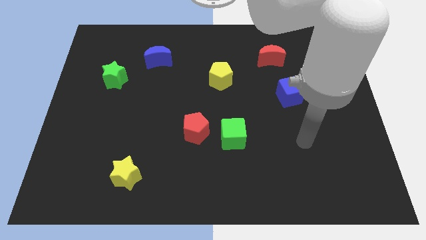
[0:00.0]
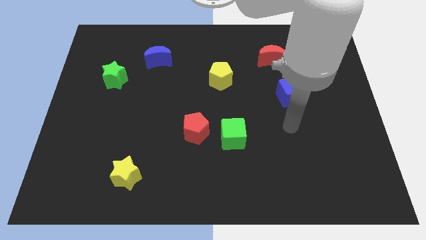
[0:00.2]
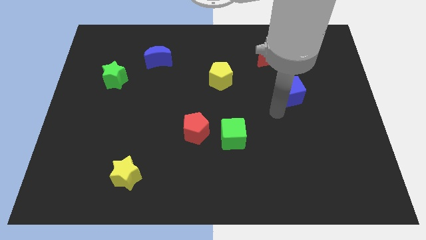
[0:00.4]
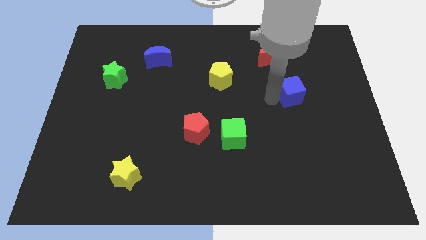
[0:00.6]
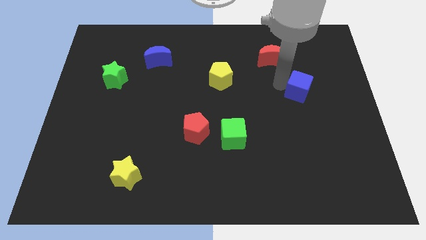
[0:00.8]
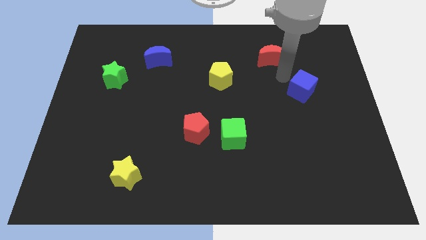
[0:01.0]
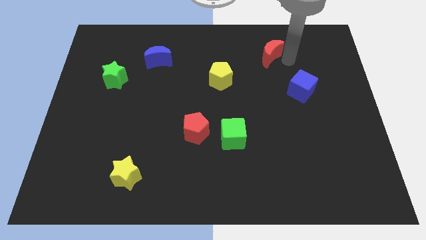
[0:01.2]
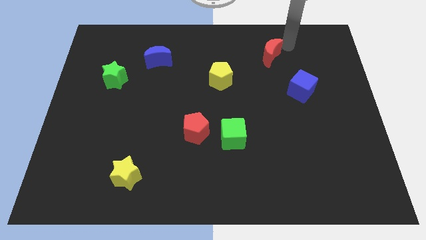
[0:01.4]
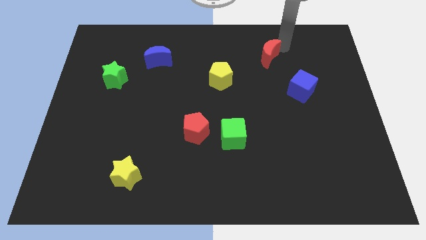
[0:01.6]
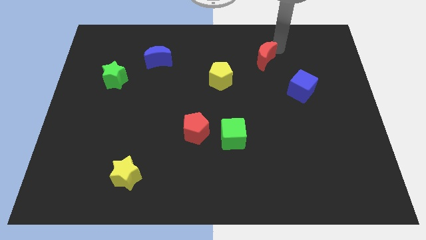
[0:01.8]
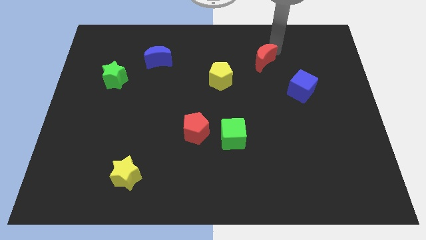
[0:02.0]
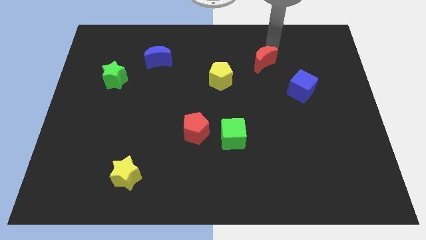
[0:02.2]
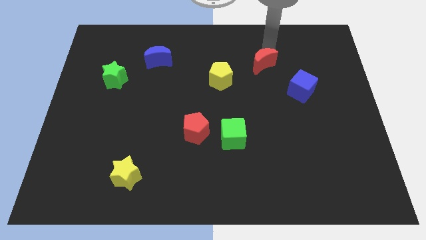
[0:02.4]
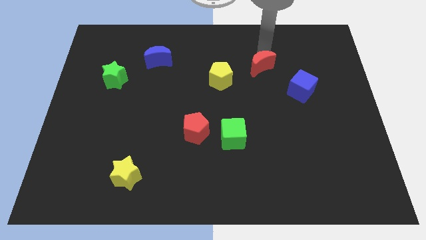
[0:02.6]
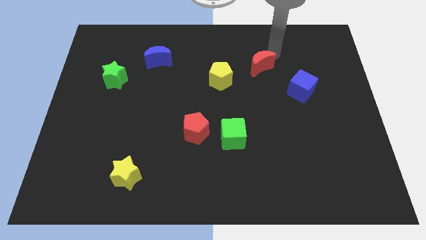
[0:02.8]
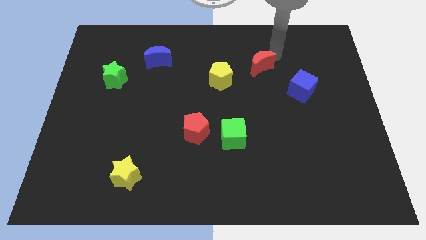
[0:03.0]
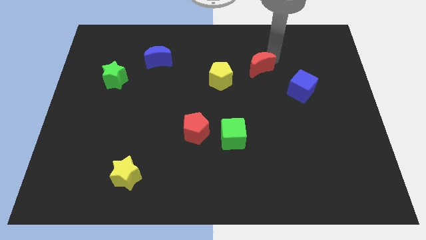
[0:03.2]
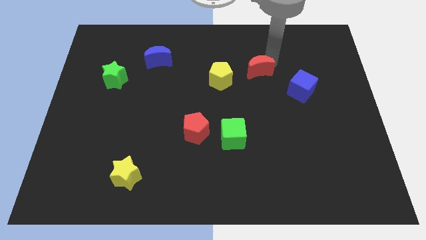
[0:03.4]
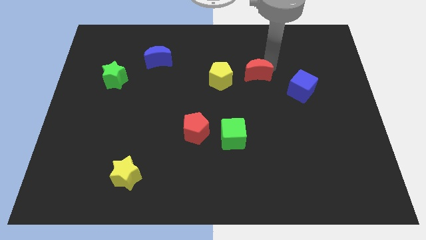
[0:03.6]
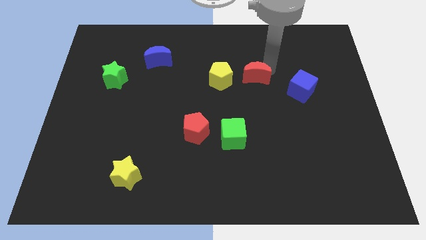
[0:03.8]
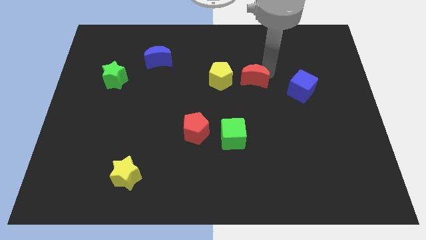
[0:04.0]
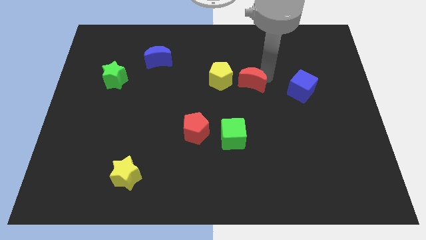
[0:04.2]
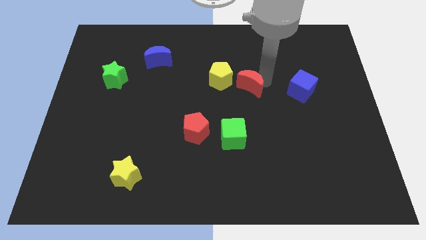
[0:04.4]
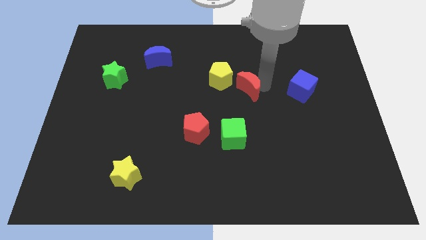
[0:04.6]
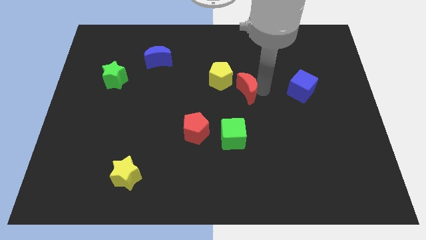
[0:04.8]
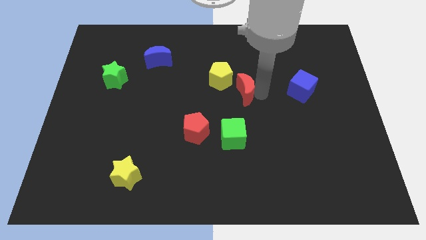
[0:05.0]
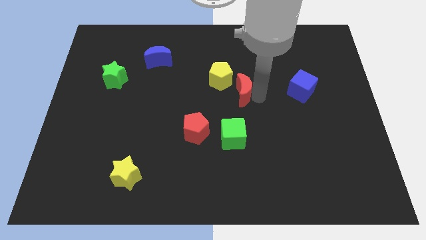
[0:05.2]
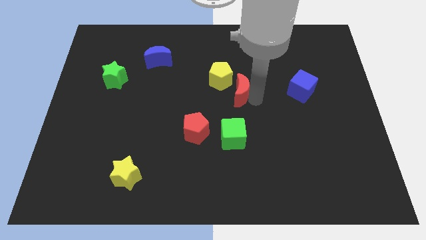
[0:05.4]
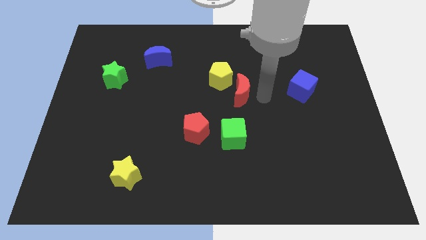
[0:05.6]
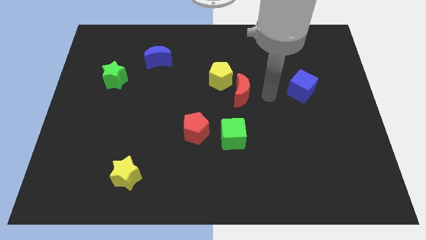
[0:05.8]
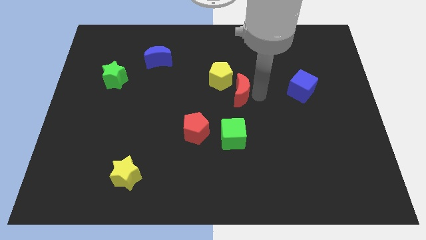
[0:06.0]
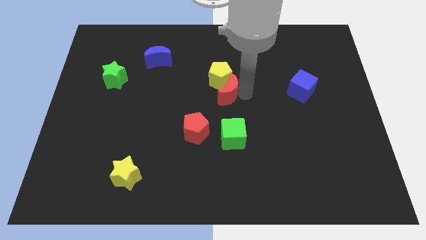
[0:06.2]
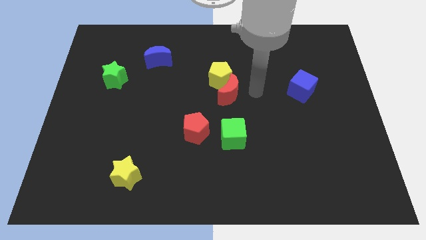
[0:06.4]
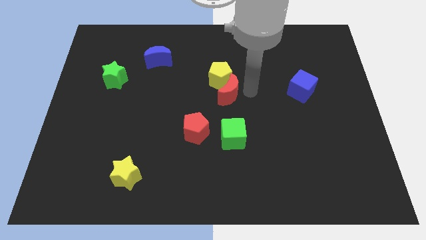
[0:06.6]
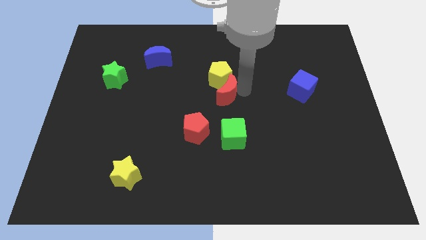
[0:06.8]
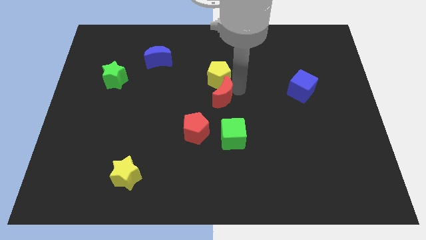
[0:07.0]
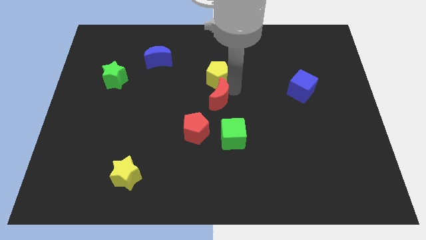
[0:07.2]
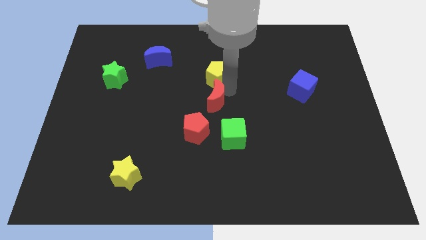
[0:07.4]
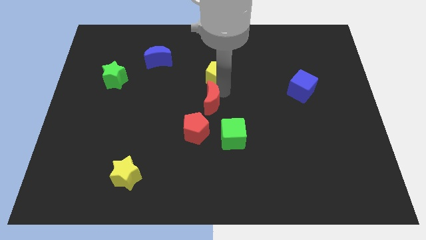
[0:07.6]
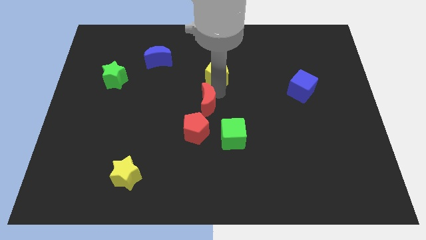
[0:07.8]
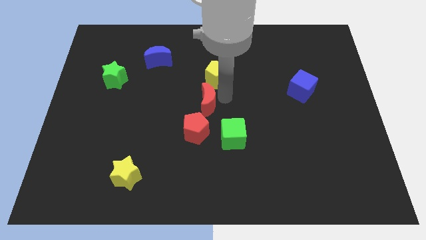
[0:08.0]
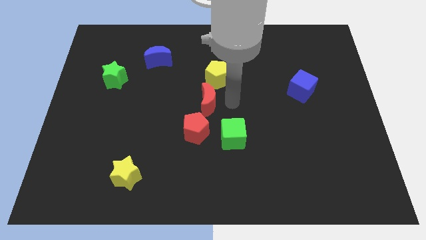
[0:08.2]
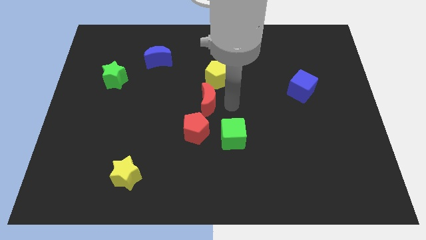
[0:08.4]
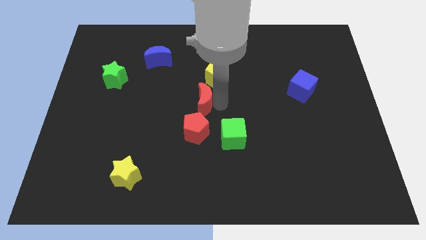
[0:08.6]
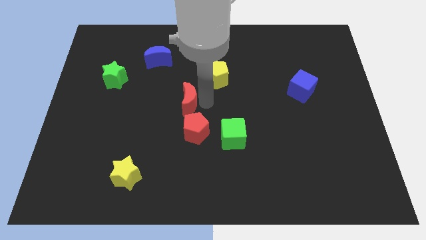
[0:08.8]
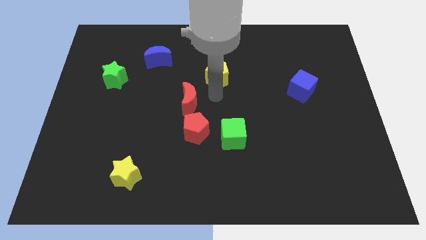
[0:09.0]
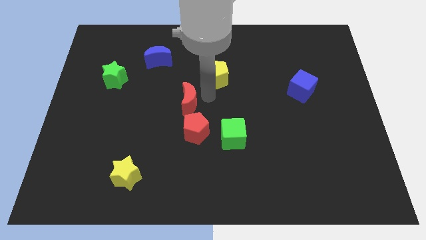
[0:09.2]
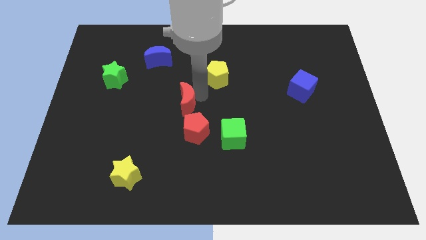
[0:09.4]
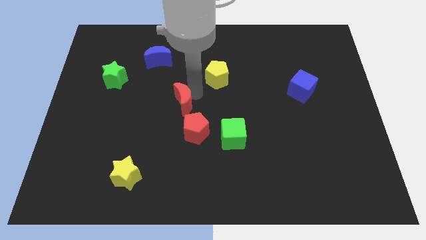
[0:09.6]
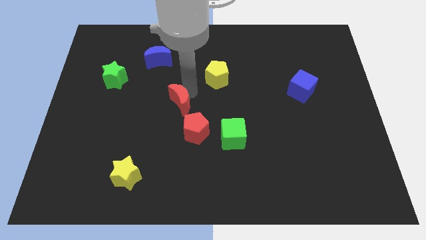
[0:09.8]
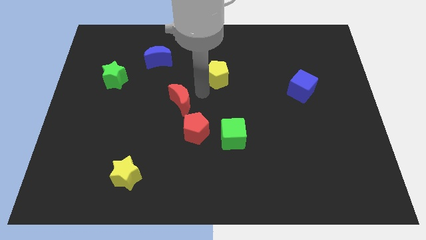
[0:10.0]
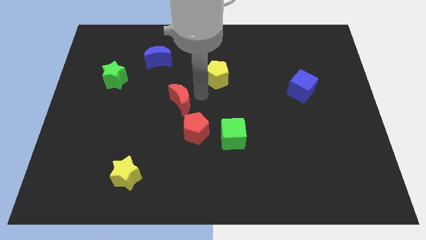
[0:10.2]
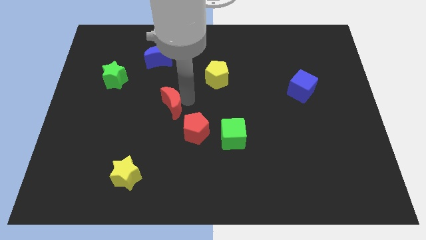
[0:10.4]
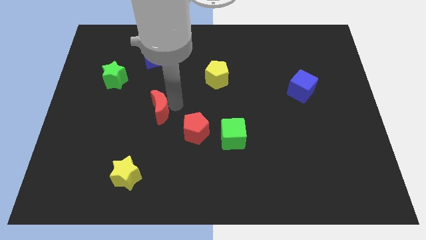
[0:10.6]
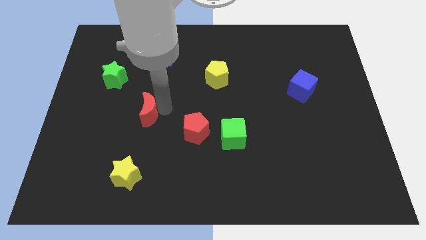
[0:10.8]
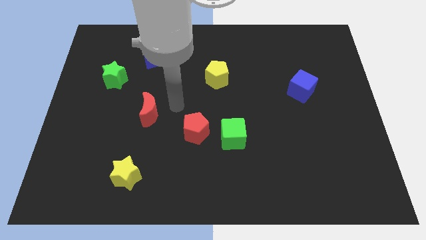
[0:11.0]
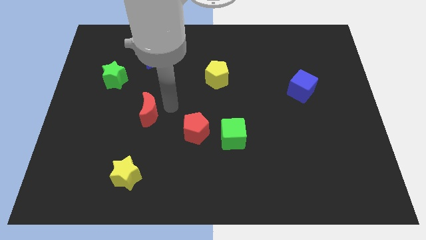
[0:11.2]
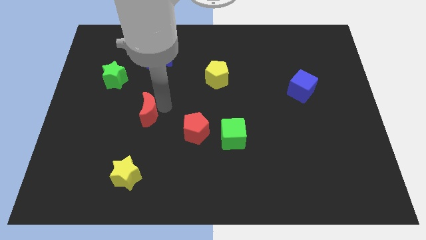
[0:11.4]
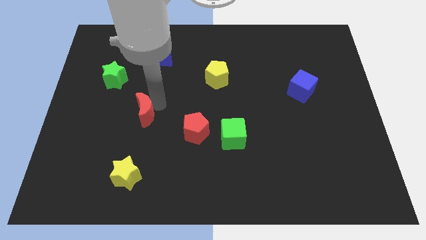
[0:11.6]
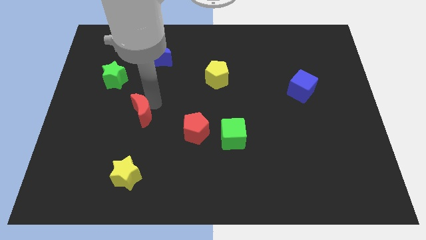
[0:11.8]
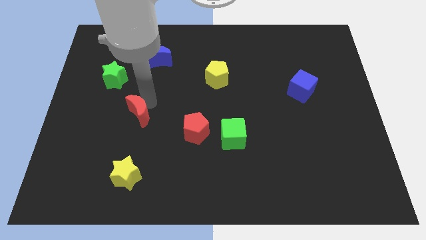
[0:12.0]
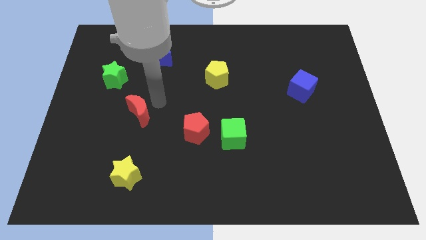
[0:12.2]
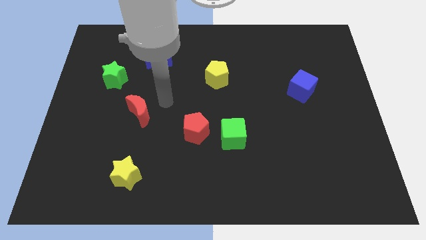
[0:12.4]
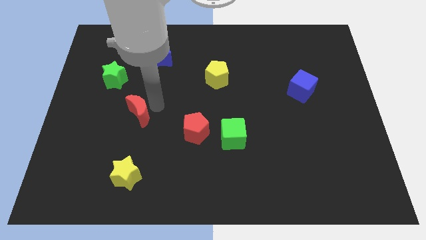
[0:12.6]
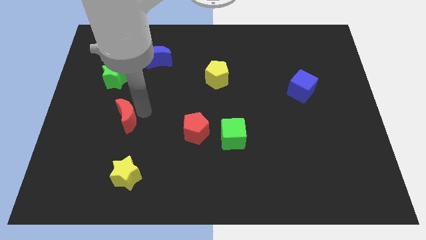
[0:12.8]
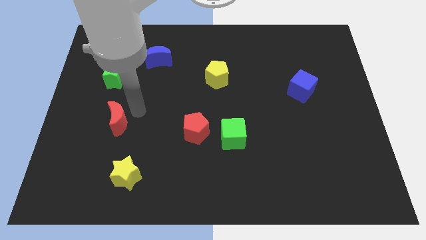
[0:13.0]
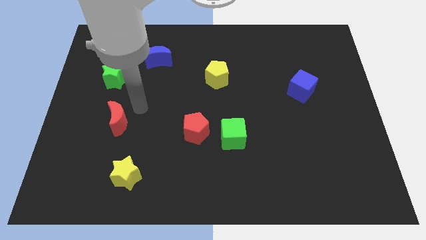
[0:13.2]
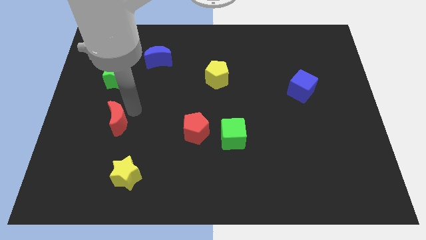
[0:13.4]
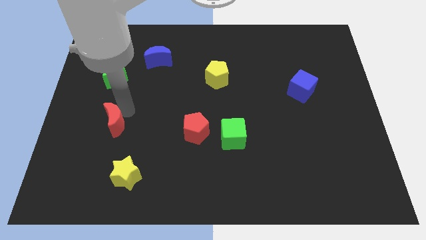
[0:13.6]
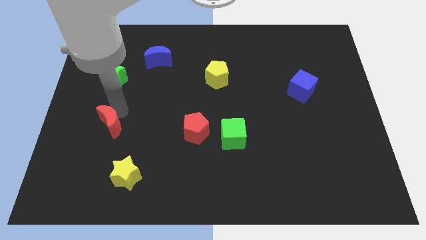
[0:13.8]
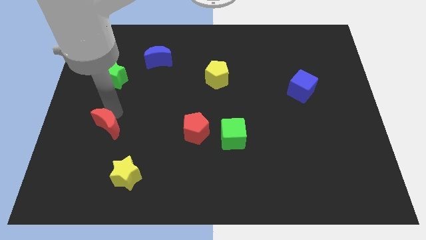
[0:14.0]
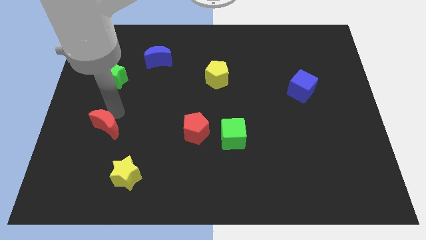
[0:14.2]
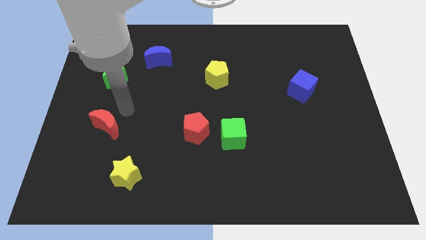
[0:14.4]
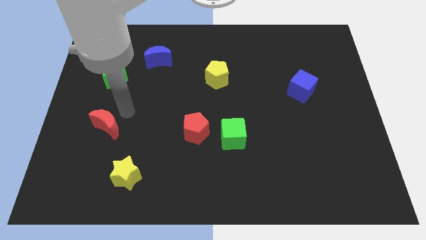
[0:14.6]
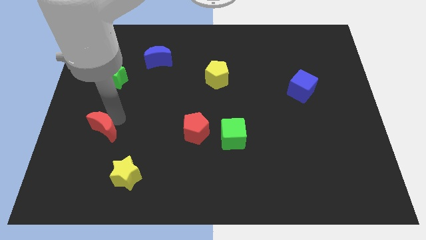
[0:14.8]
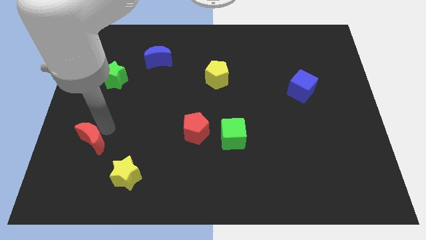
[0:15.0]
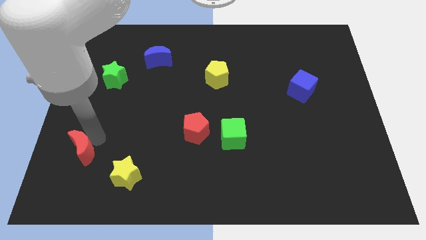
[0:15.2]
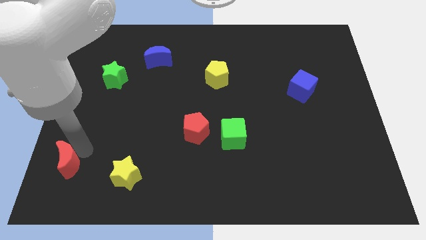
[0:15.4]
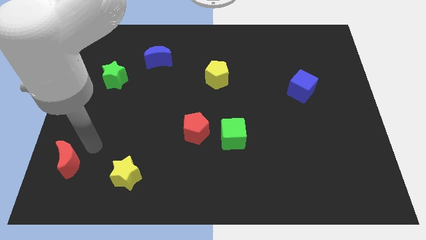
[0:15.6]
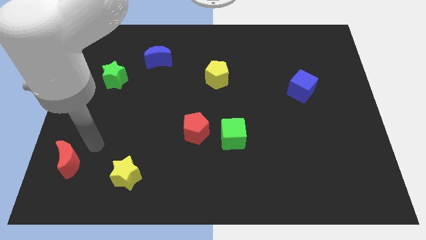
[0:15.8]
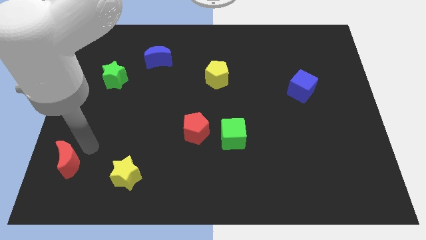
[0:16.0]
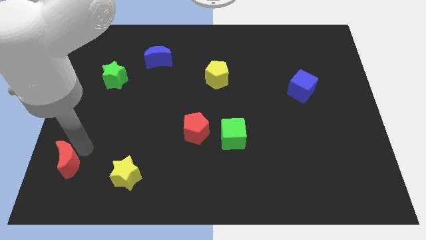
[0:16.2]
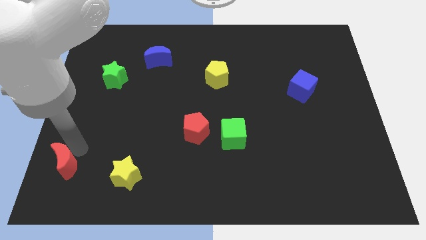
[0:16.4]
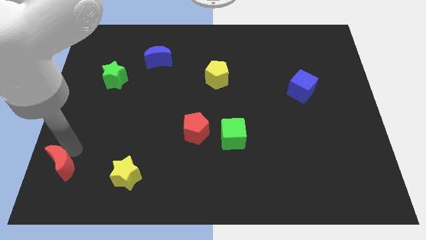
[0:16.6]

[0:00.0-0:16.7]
push the red moon to the bottom left corner
